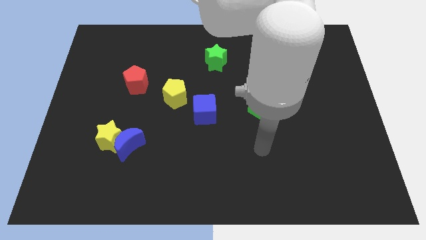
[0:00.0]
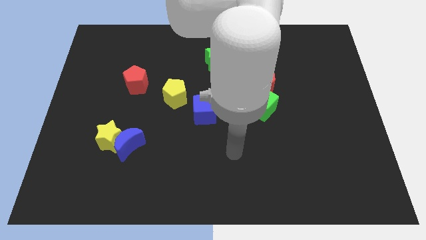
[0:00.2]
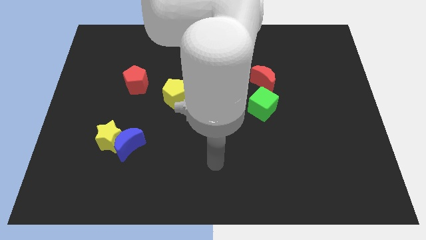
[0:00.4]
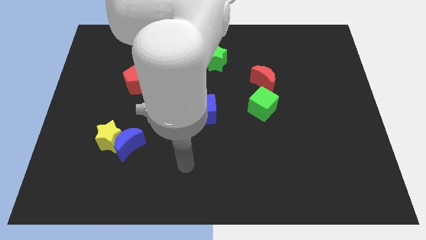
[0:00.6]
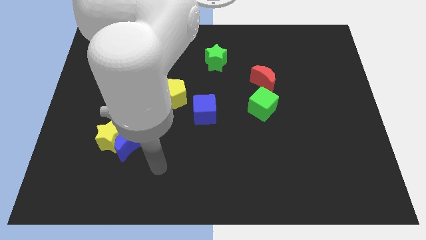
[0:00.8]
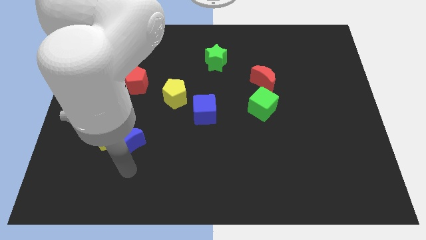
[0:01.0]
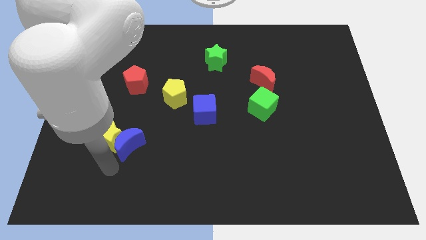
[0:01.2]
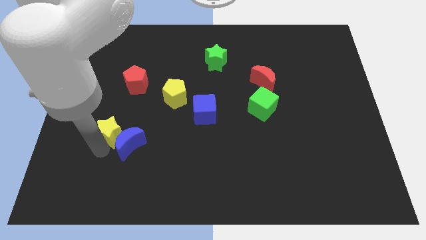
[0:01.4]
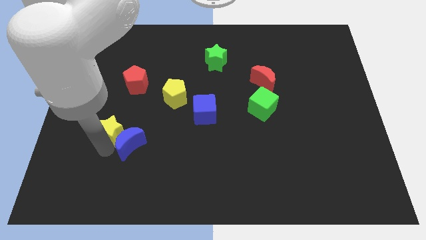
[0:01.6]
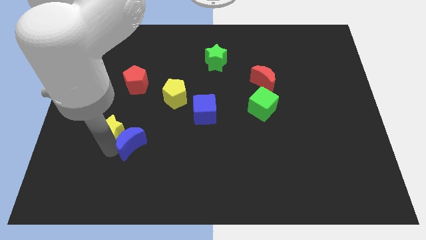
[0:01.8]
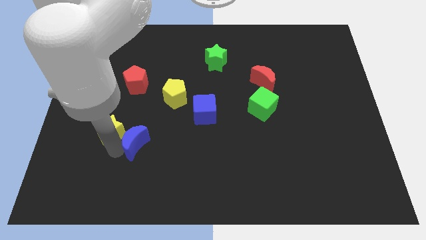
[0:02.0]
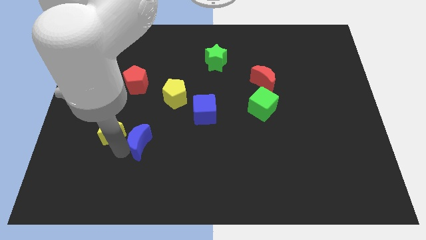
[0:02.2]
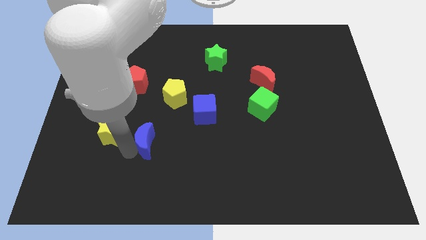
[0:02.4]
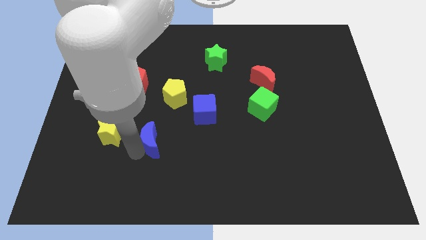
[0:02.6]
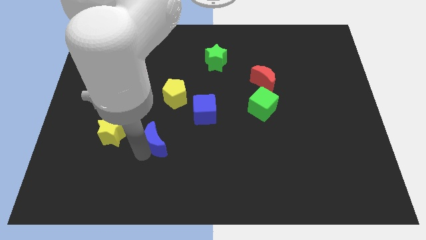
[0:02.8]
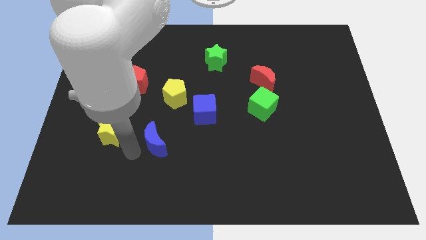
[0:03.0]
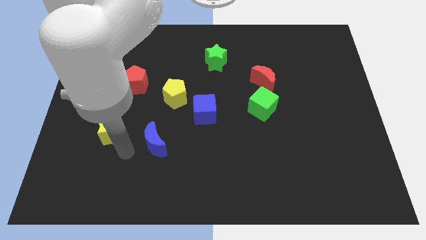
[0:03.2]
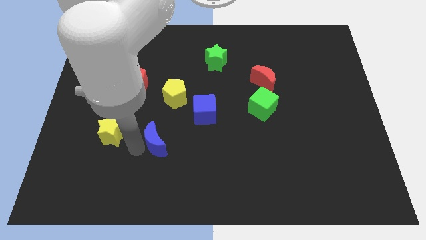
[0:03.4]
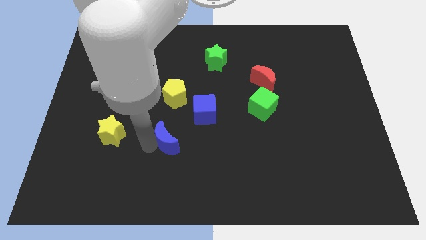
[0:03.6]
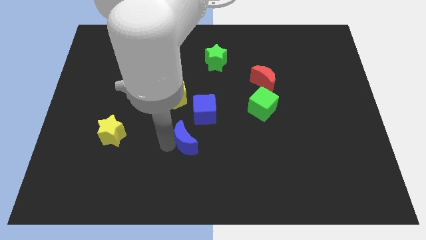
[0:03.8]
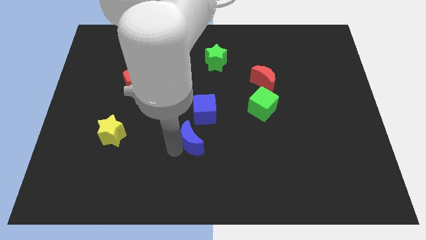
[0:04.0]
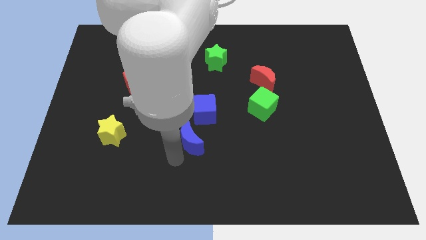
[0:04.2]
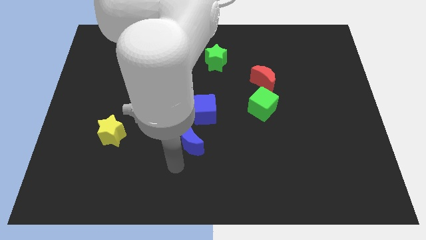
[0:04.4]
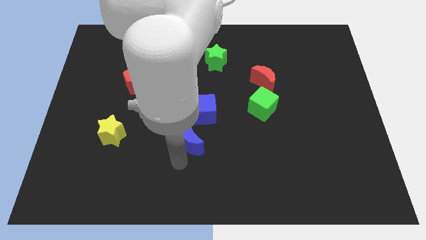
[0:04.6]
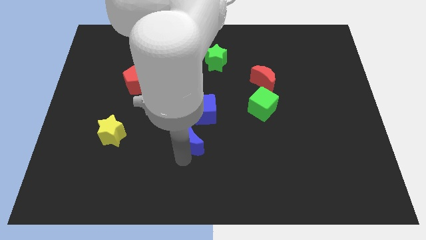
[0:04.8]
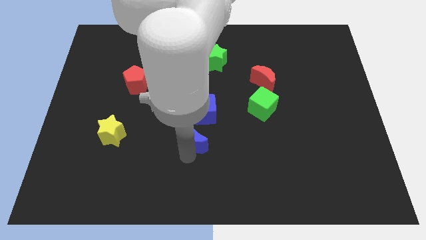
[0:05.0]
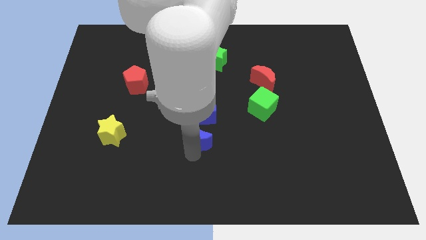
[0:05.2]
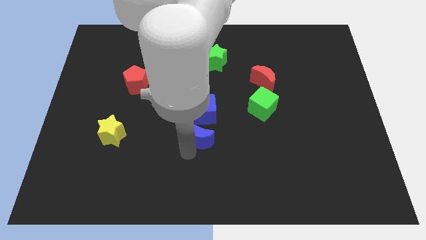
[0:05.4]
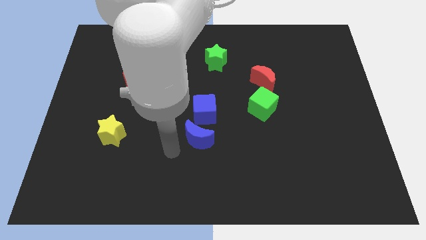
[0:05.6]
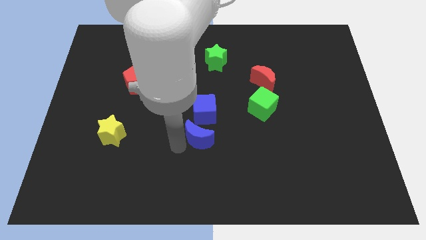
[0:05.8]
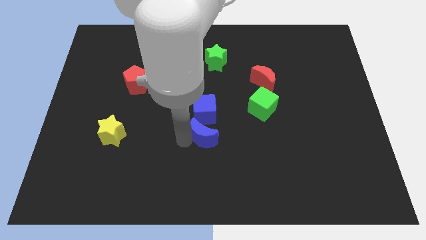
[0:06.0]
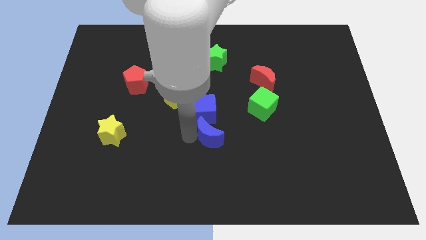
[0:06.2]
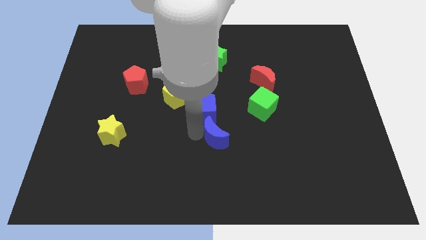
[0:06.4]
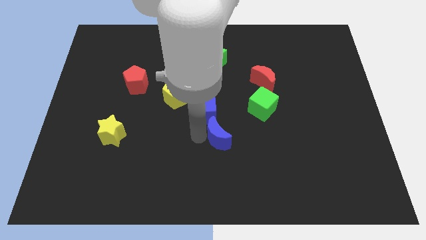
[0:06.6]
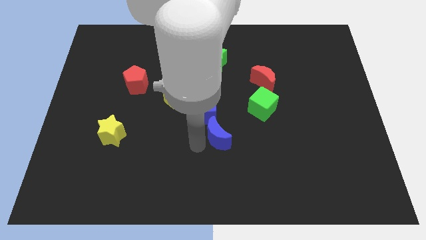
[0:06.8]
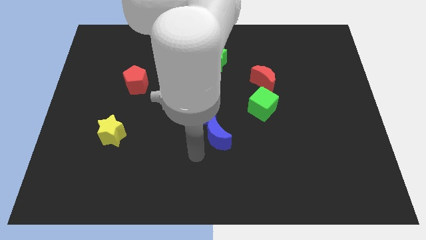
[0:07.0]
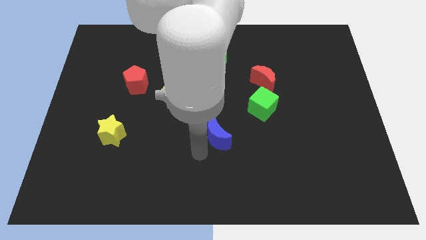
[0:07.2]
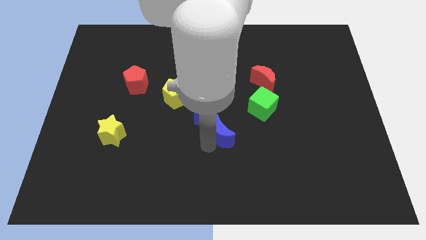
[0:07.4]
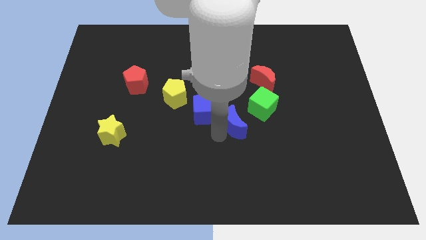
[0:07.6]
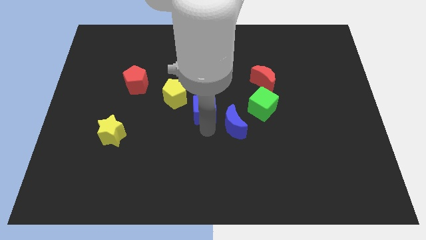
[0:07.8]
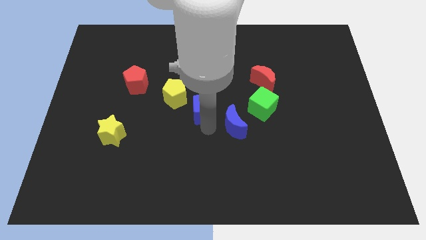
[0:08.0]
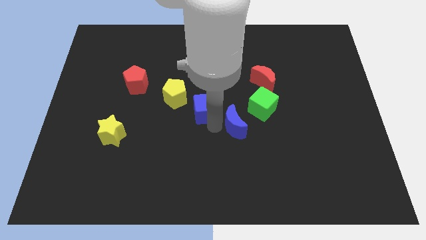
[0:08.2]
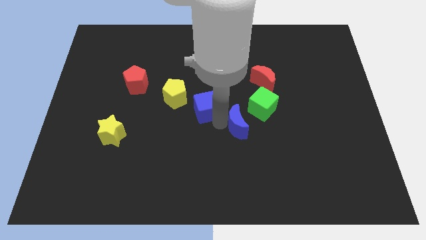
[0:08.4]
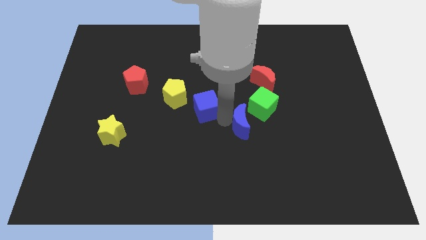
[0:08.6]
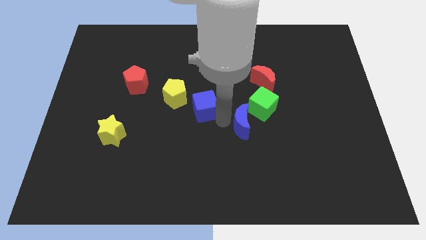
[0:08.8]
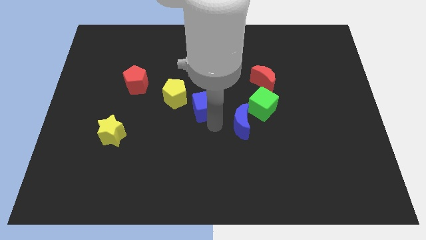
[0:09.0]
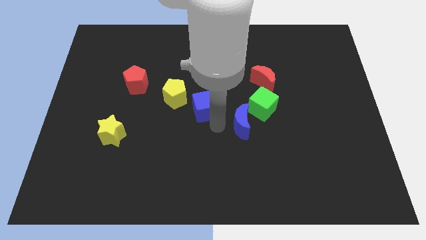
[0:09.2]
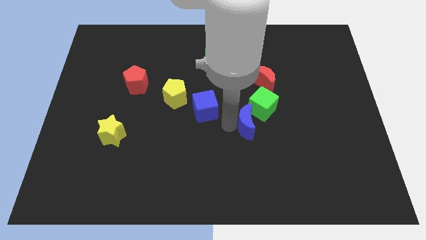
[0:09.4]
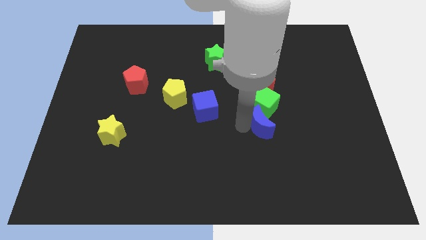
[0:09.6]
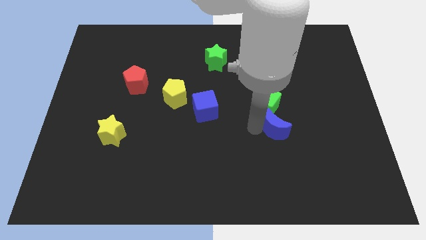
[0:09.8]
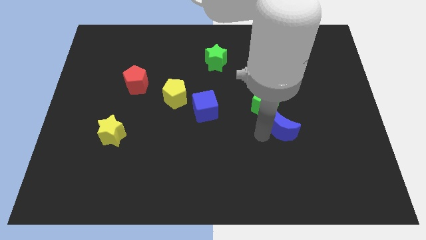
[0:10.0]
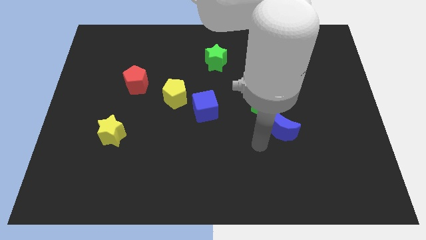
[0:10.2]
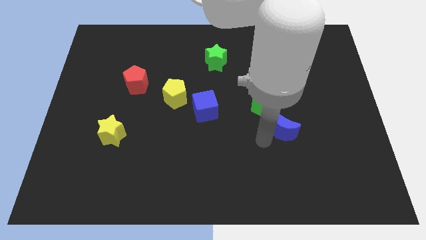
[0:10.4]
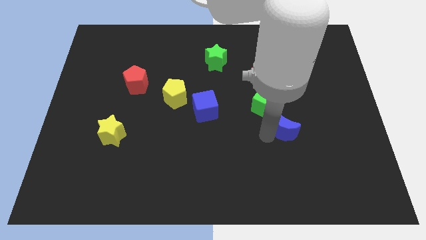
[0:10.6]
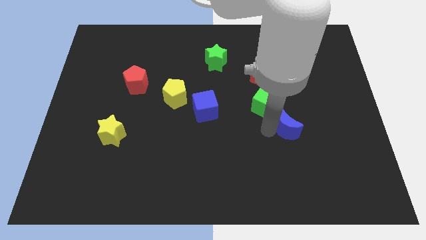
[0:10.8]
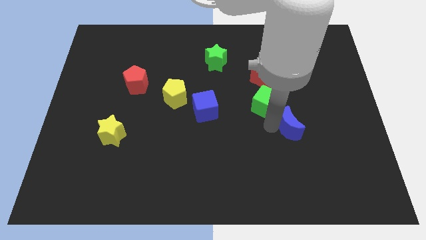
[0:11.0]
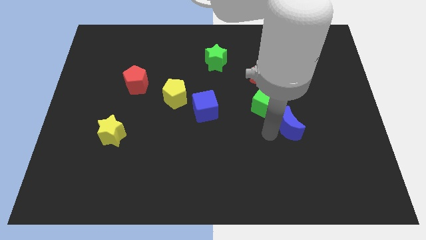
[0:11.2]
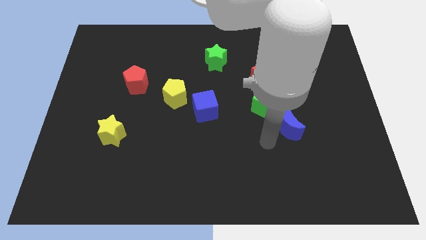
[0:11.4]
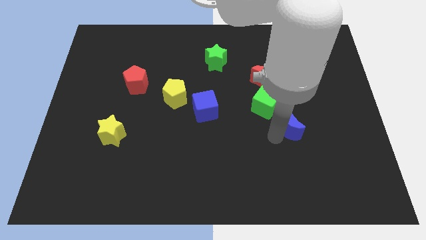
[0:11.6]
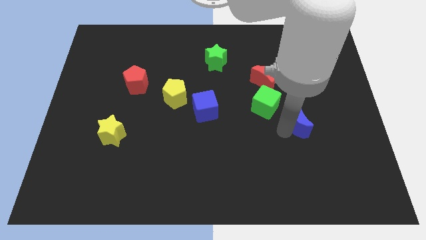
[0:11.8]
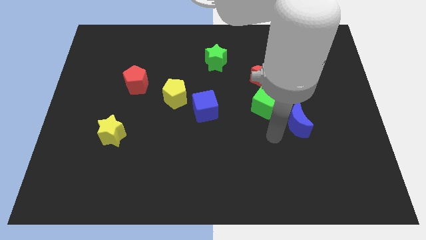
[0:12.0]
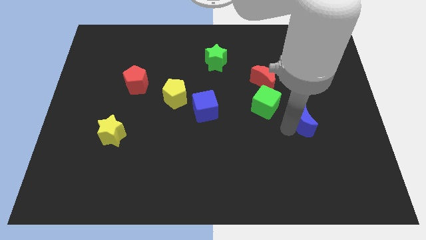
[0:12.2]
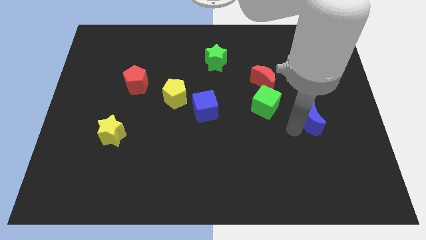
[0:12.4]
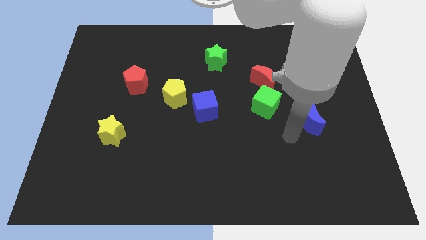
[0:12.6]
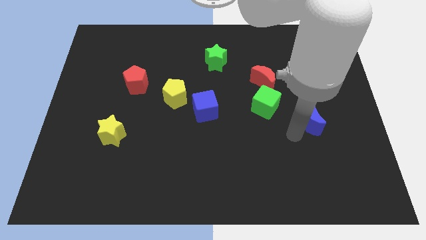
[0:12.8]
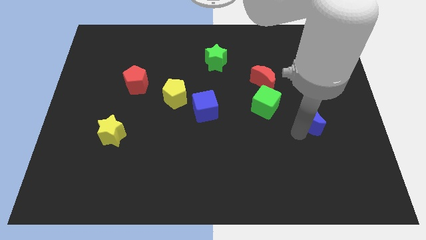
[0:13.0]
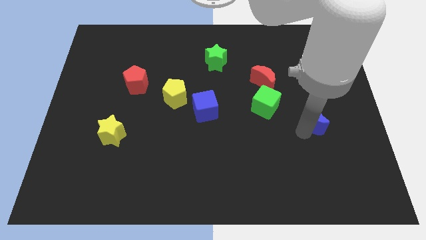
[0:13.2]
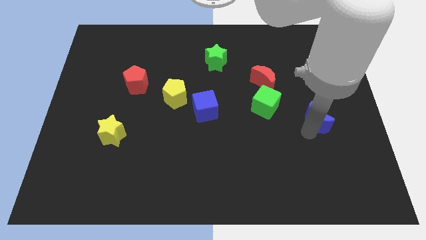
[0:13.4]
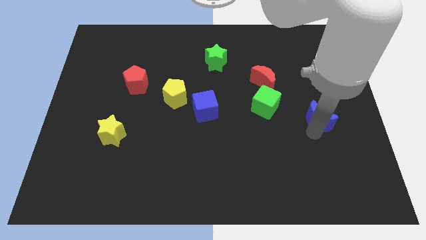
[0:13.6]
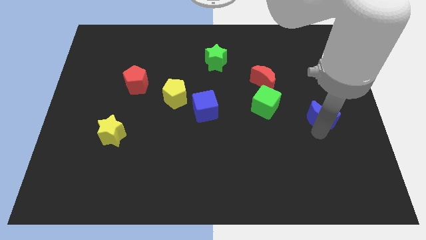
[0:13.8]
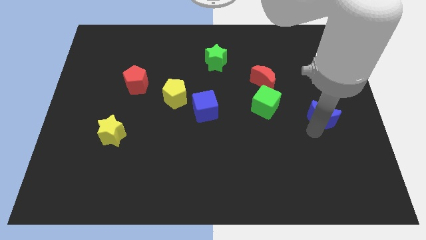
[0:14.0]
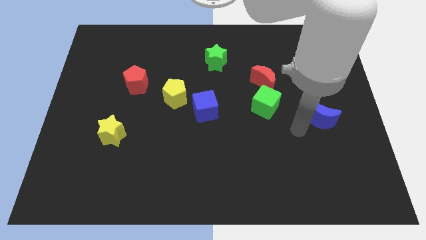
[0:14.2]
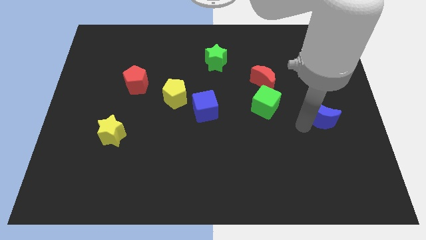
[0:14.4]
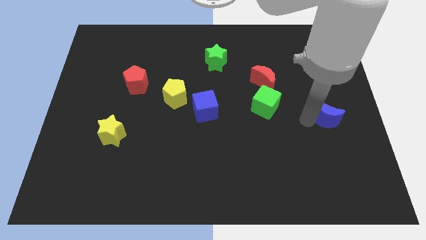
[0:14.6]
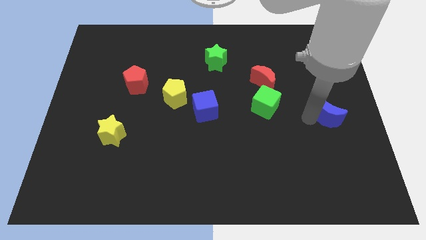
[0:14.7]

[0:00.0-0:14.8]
move the blue moon to the center right
